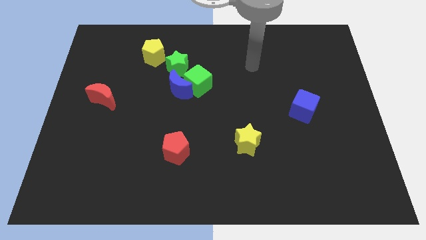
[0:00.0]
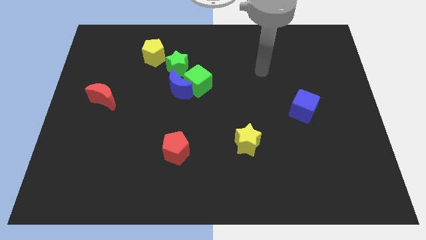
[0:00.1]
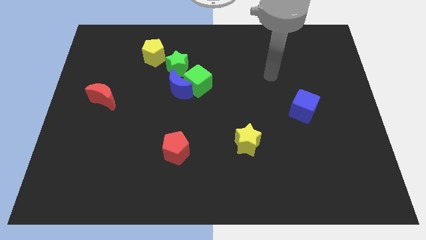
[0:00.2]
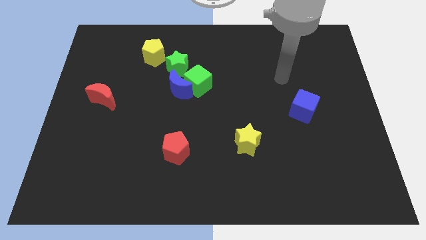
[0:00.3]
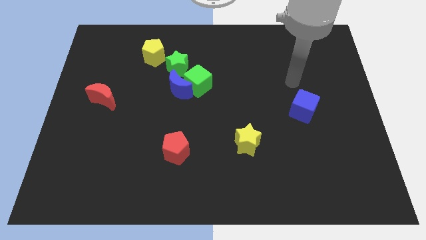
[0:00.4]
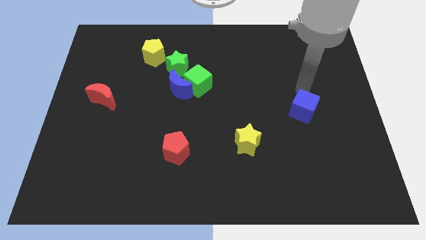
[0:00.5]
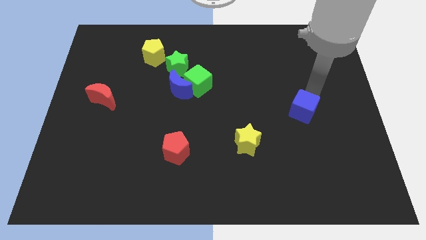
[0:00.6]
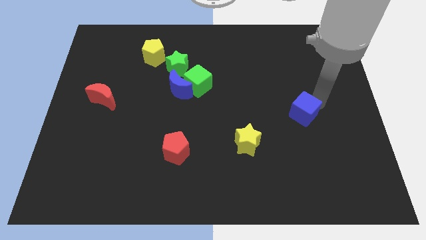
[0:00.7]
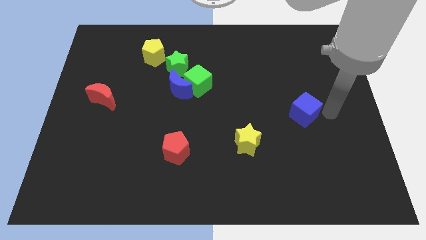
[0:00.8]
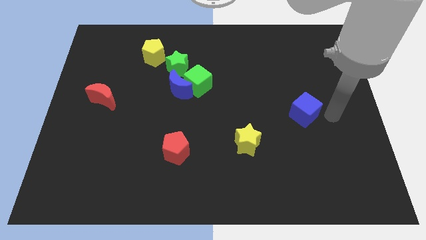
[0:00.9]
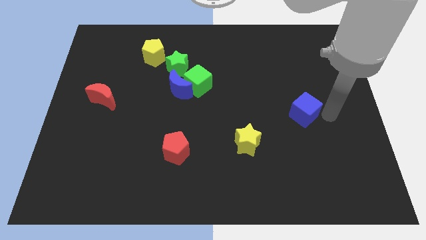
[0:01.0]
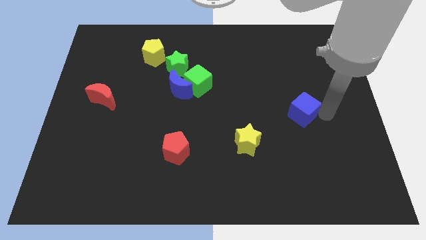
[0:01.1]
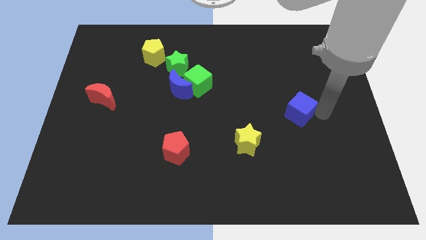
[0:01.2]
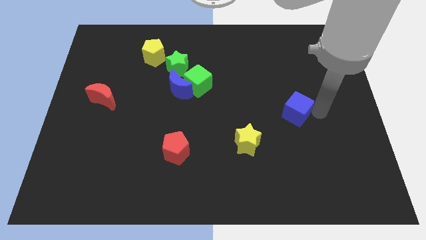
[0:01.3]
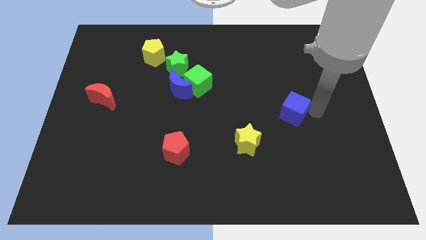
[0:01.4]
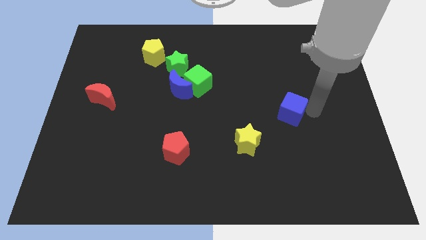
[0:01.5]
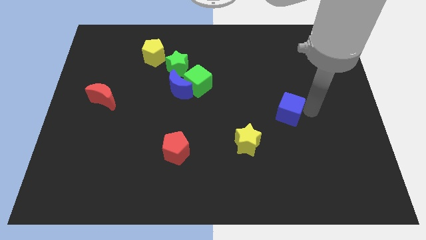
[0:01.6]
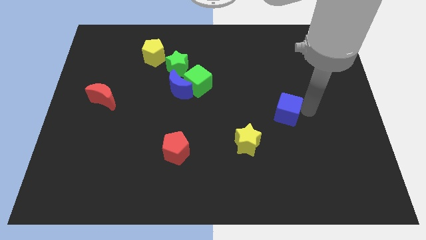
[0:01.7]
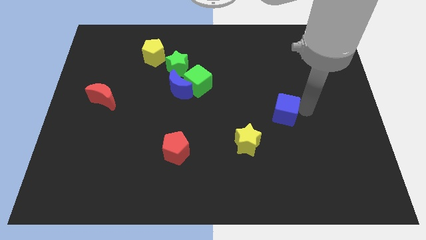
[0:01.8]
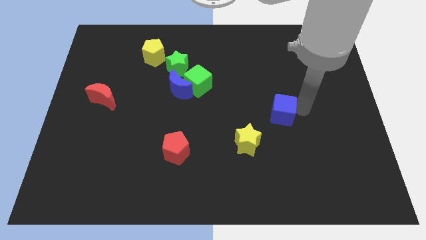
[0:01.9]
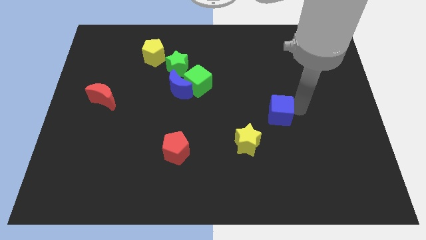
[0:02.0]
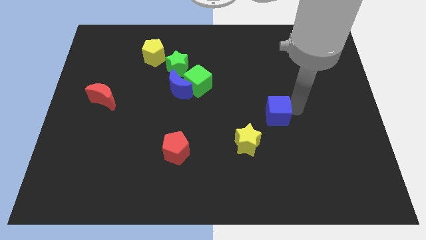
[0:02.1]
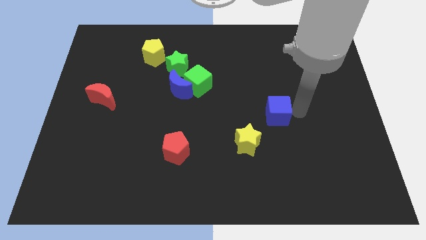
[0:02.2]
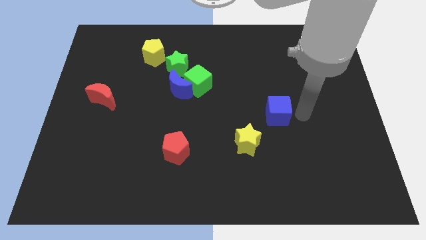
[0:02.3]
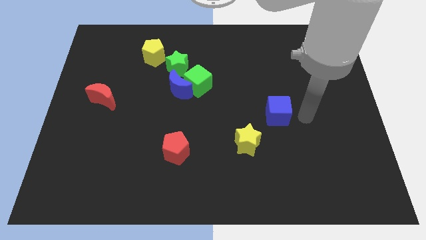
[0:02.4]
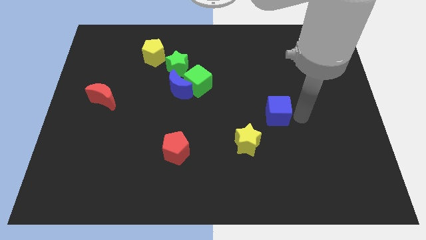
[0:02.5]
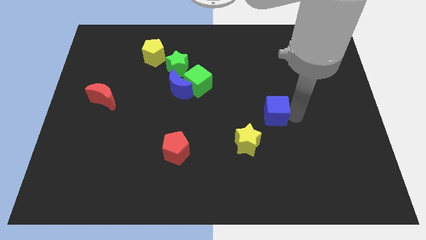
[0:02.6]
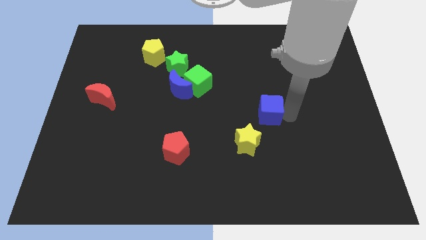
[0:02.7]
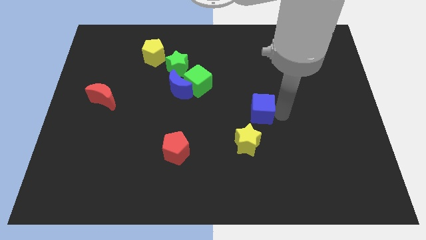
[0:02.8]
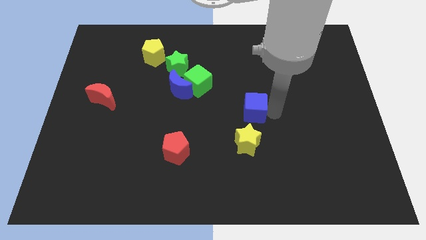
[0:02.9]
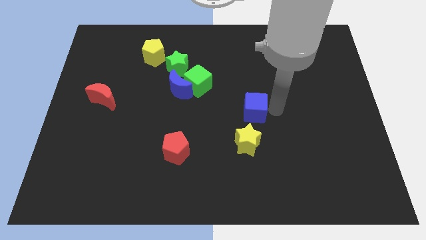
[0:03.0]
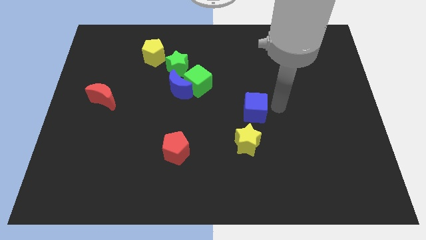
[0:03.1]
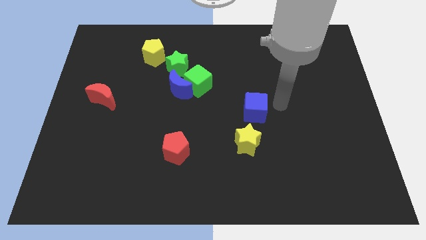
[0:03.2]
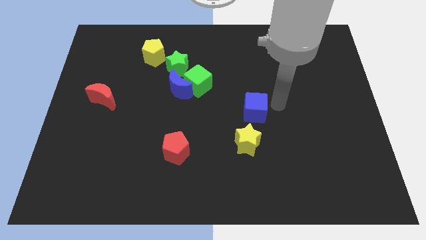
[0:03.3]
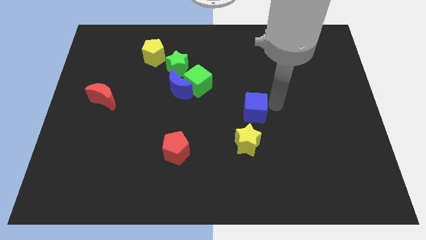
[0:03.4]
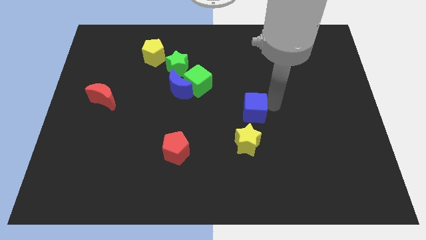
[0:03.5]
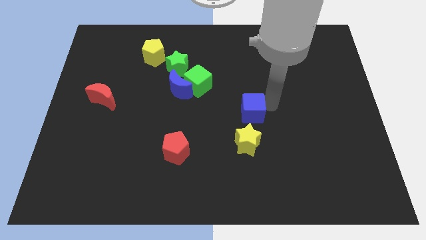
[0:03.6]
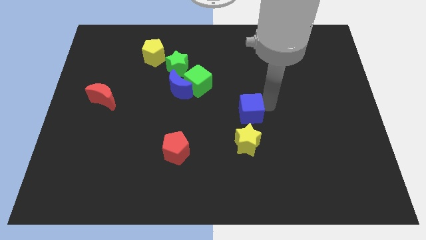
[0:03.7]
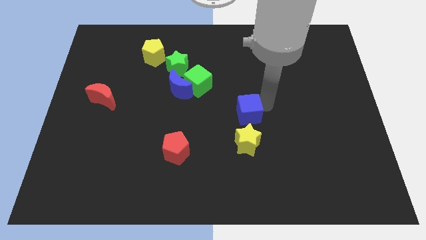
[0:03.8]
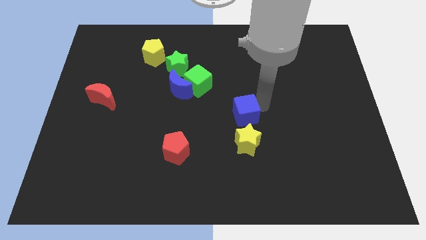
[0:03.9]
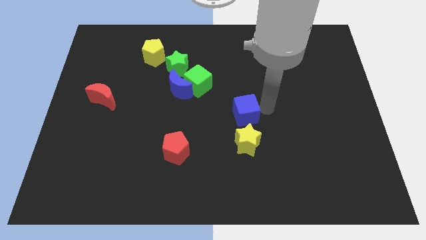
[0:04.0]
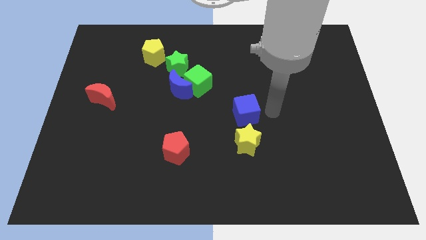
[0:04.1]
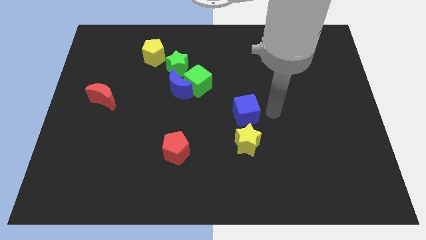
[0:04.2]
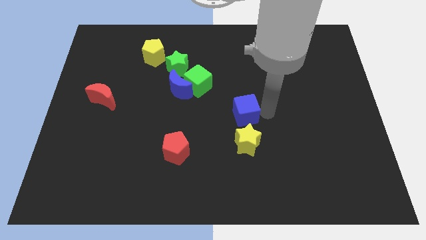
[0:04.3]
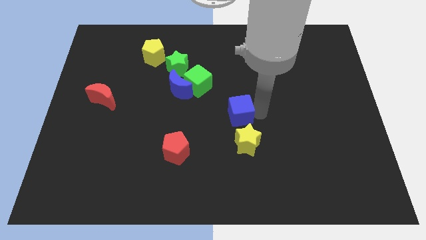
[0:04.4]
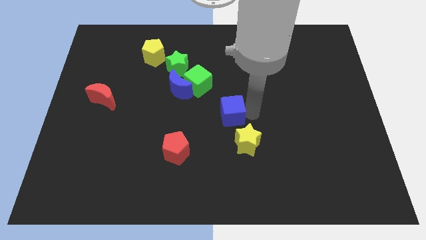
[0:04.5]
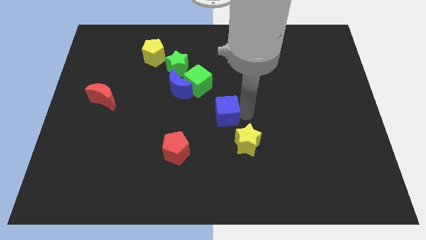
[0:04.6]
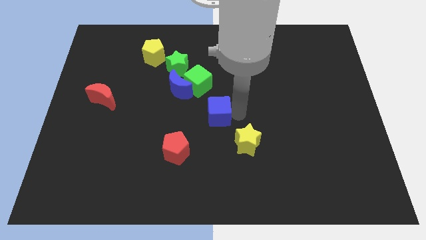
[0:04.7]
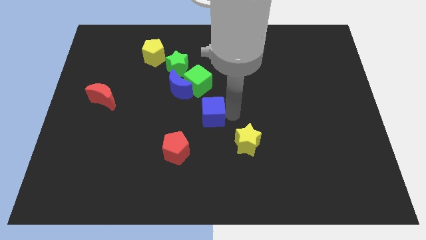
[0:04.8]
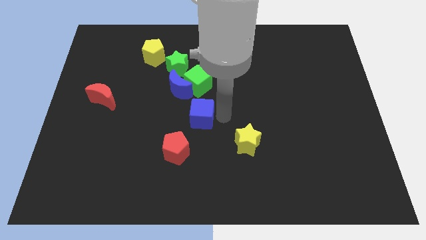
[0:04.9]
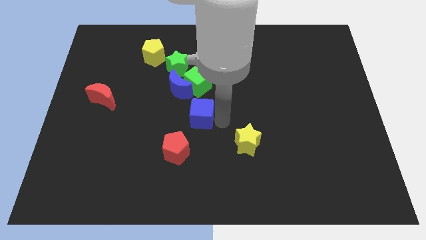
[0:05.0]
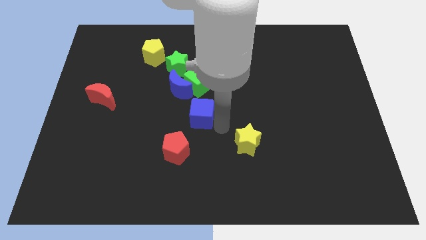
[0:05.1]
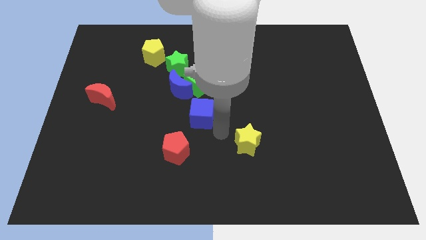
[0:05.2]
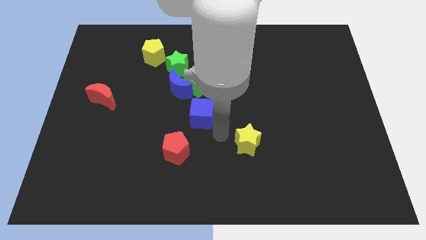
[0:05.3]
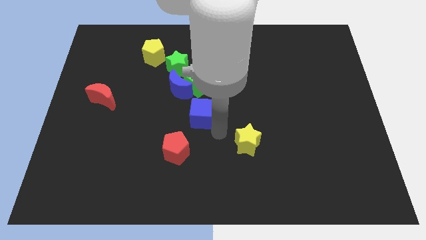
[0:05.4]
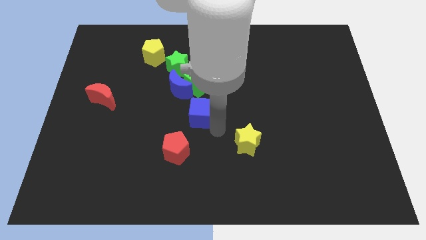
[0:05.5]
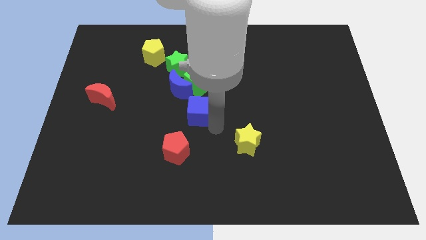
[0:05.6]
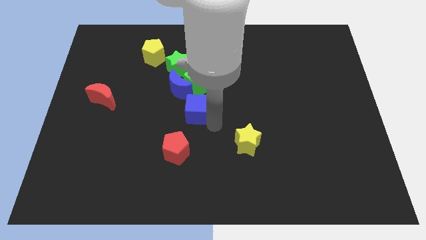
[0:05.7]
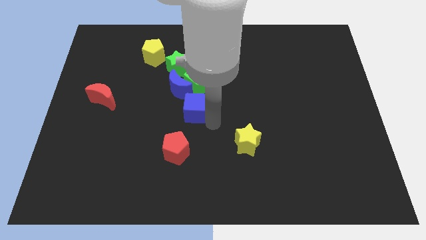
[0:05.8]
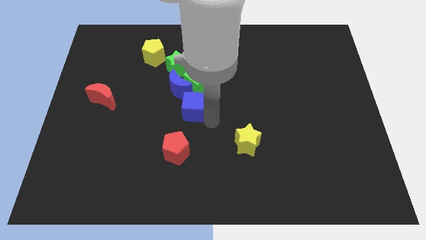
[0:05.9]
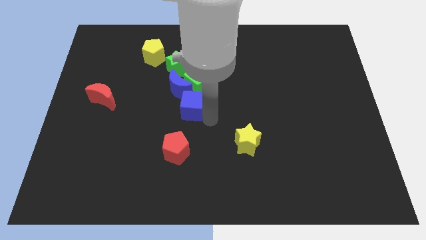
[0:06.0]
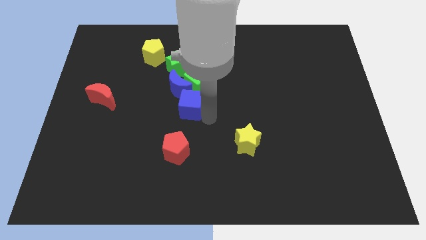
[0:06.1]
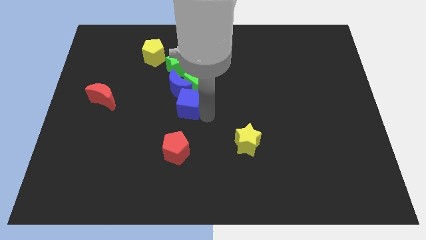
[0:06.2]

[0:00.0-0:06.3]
push the blue cube to the blue moon
